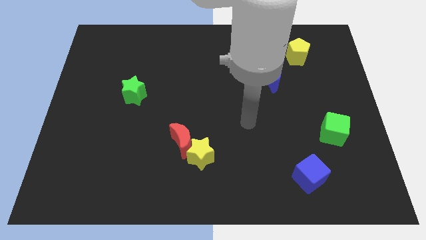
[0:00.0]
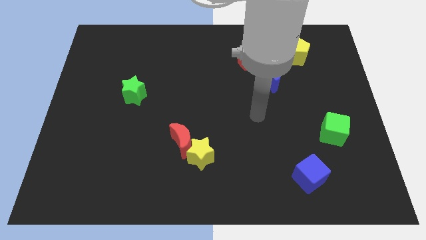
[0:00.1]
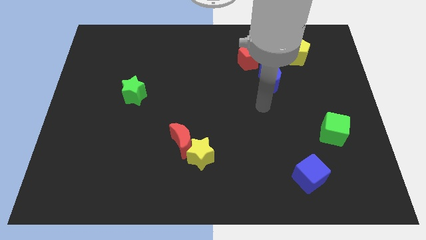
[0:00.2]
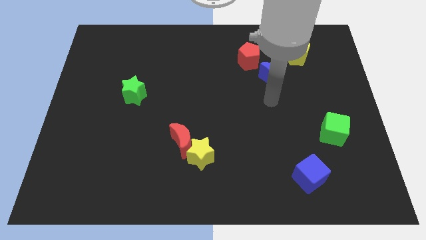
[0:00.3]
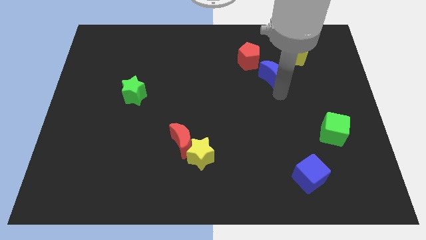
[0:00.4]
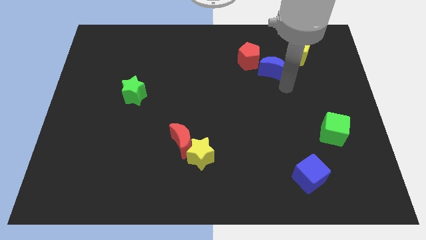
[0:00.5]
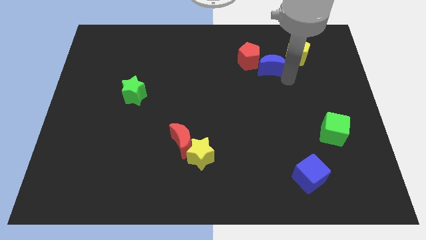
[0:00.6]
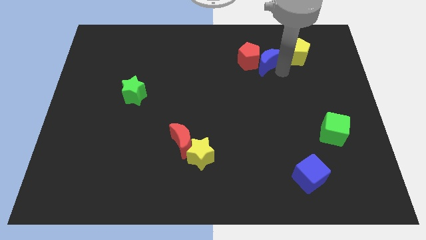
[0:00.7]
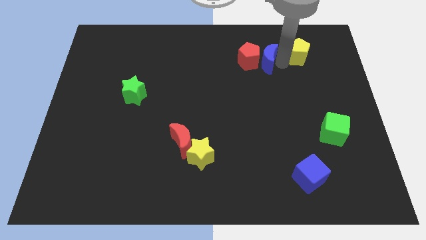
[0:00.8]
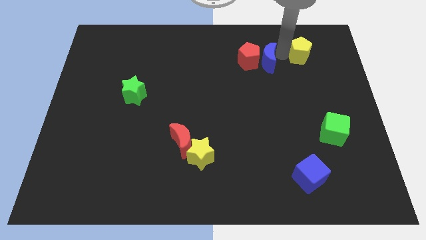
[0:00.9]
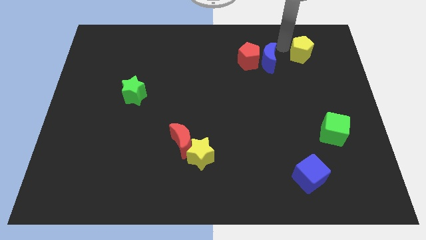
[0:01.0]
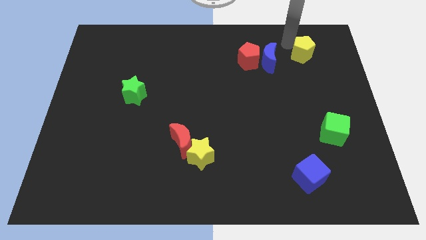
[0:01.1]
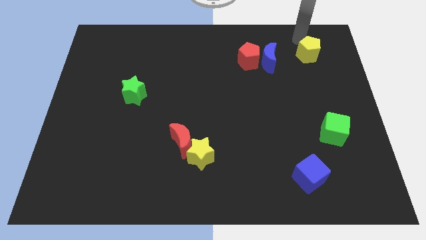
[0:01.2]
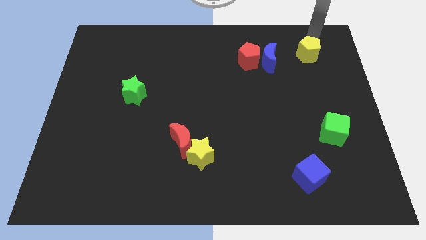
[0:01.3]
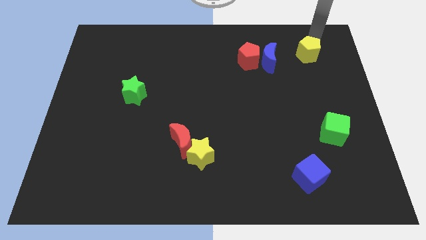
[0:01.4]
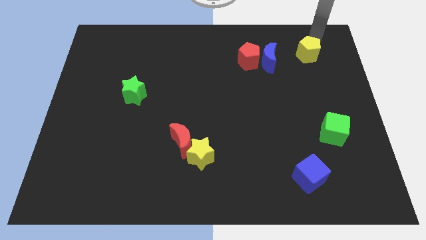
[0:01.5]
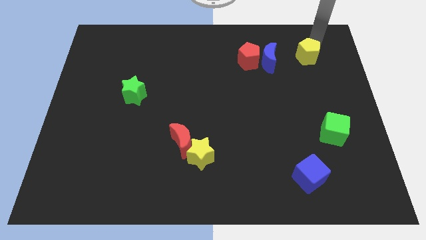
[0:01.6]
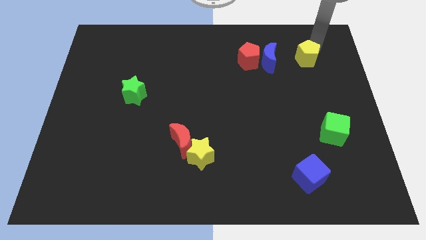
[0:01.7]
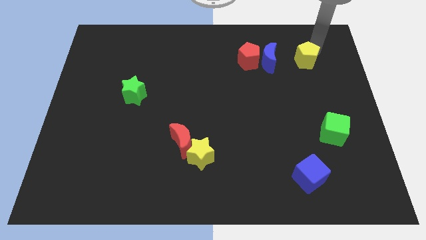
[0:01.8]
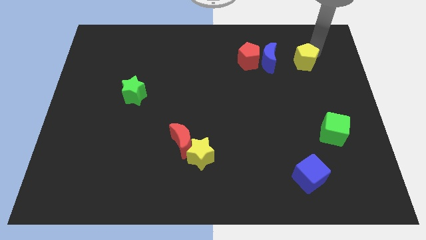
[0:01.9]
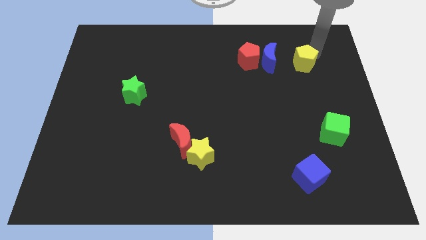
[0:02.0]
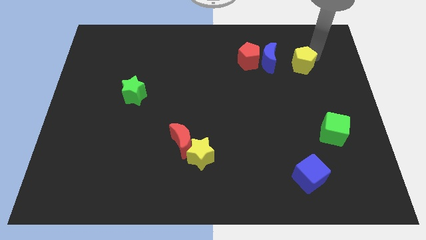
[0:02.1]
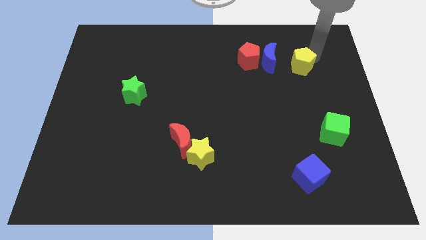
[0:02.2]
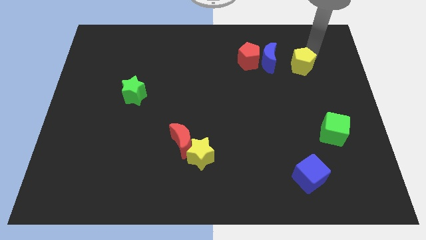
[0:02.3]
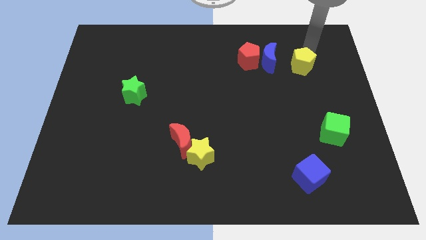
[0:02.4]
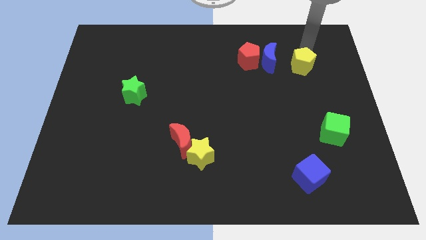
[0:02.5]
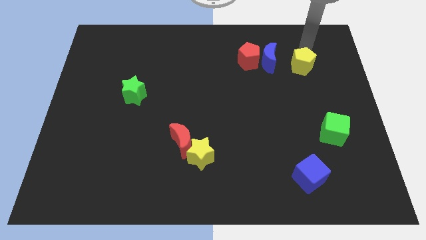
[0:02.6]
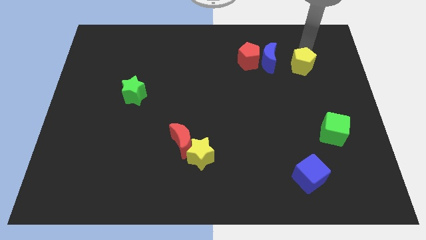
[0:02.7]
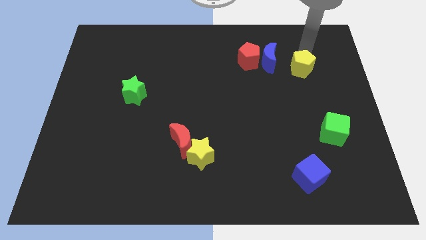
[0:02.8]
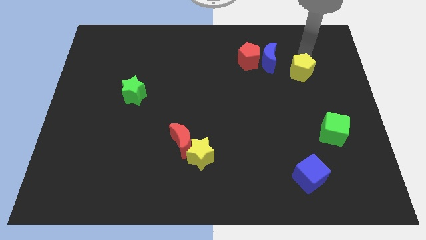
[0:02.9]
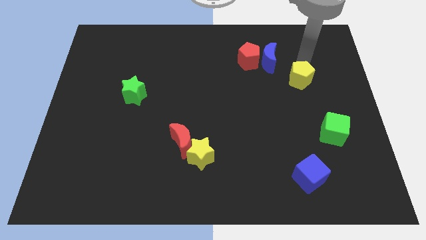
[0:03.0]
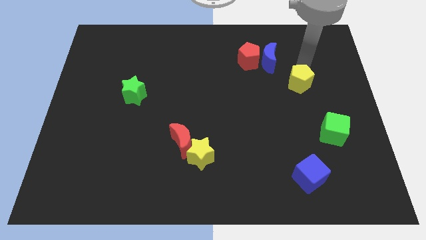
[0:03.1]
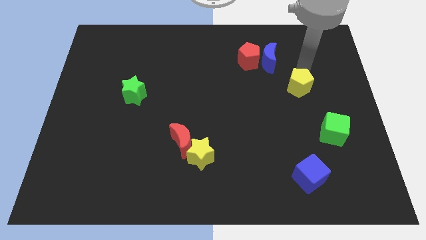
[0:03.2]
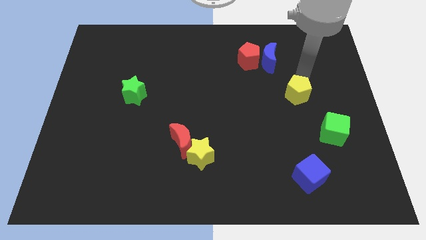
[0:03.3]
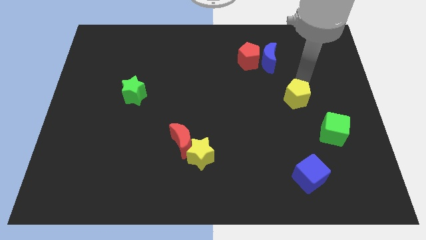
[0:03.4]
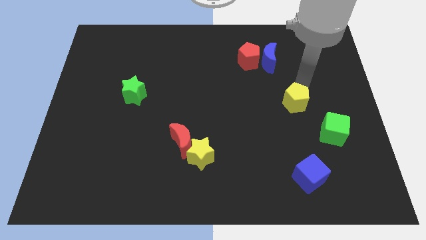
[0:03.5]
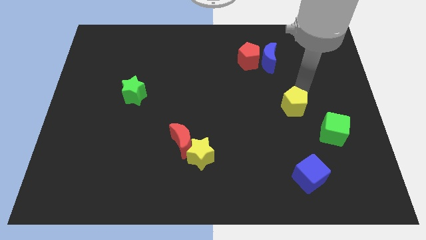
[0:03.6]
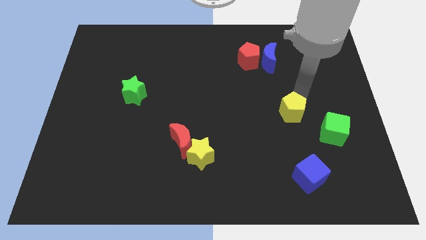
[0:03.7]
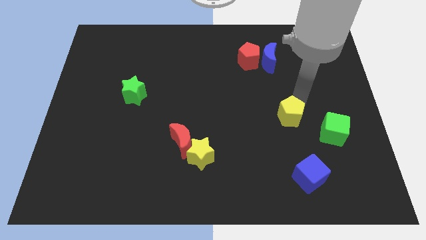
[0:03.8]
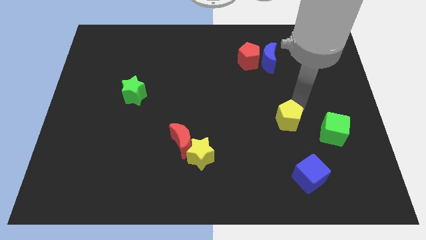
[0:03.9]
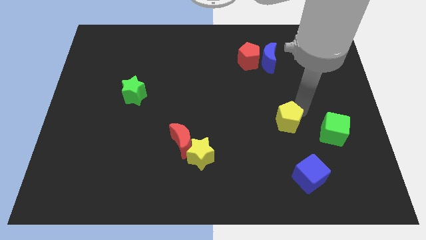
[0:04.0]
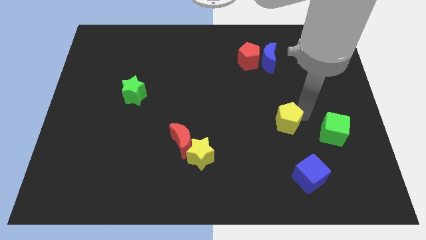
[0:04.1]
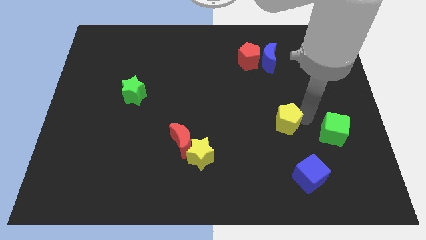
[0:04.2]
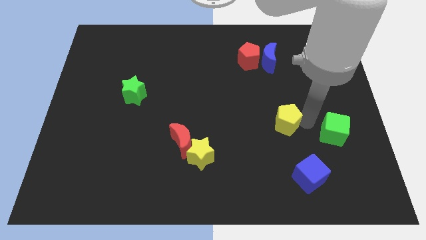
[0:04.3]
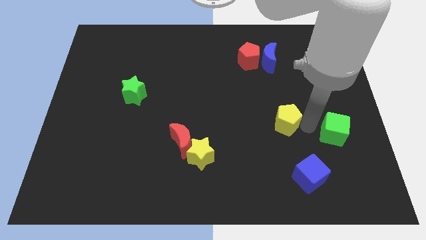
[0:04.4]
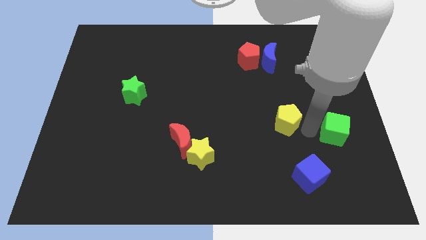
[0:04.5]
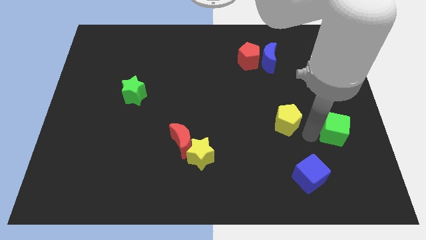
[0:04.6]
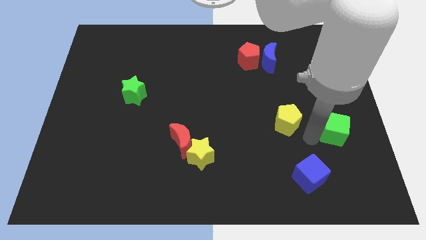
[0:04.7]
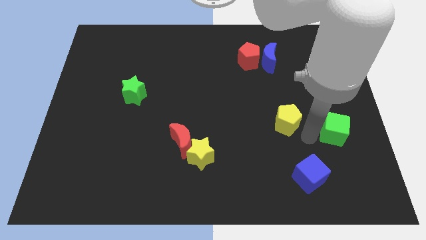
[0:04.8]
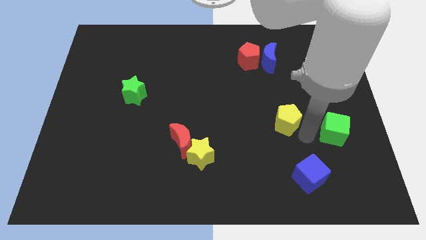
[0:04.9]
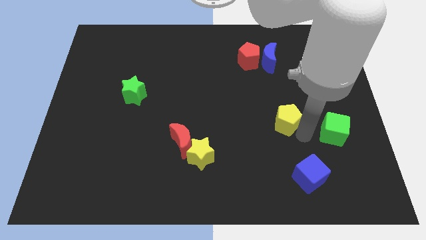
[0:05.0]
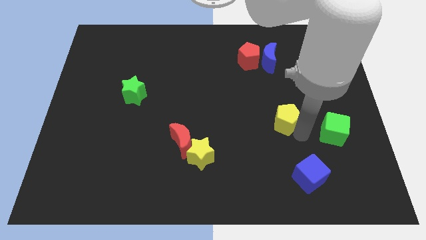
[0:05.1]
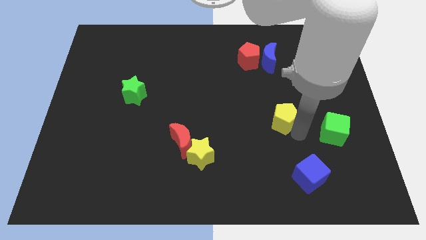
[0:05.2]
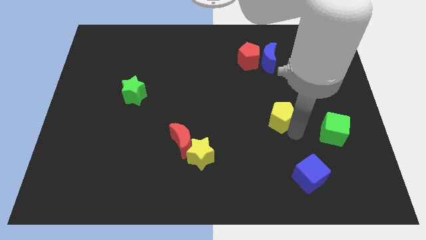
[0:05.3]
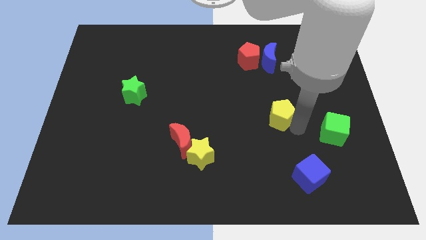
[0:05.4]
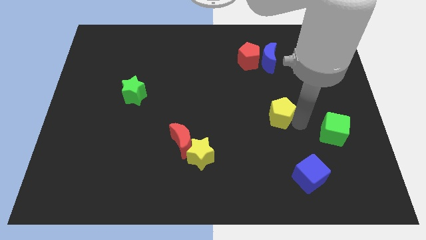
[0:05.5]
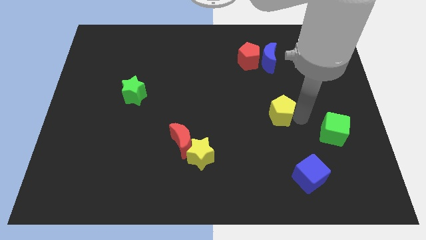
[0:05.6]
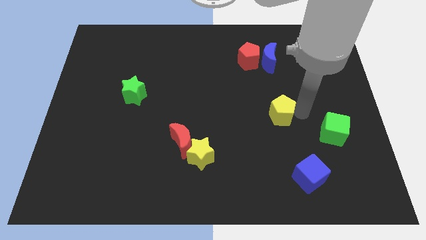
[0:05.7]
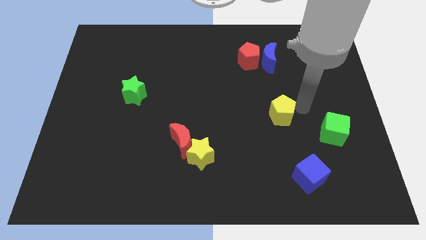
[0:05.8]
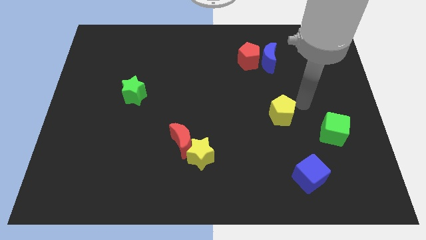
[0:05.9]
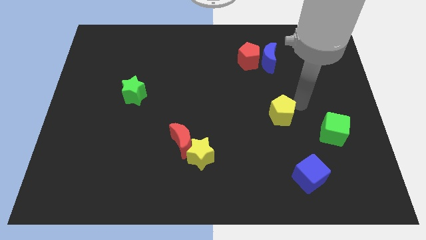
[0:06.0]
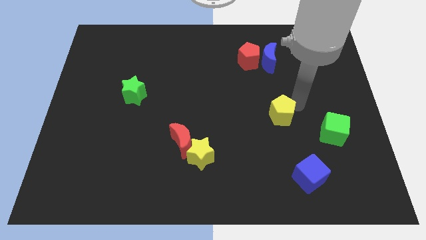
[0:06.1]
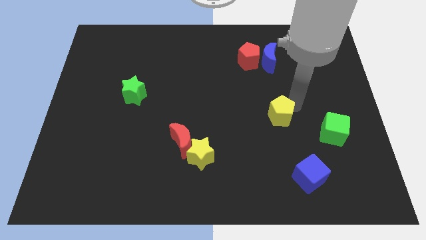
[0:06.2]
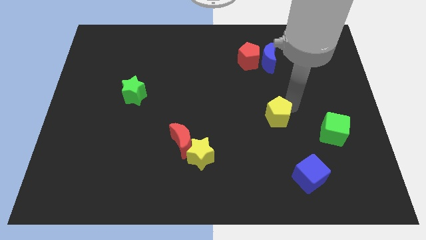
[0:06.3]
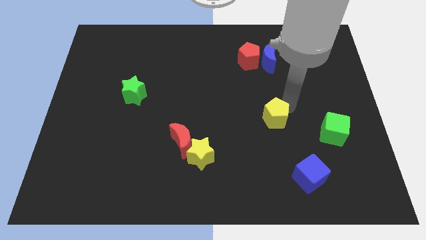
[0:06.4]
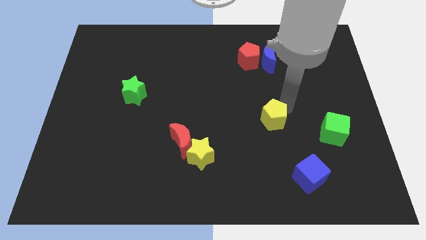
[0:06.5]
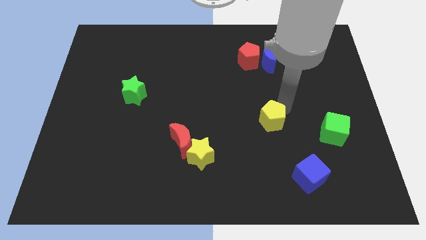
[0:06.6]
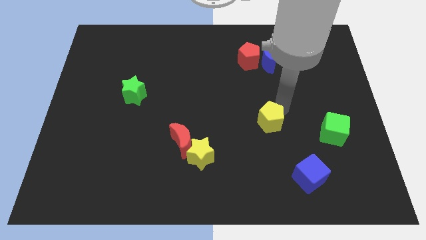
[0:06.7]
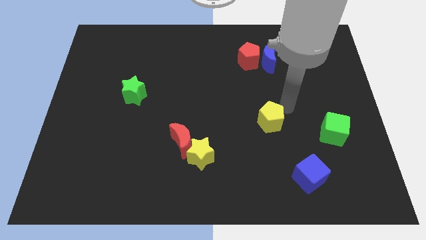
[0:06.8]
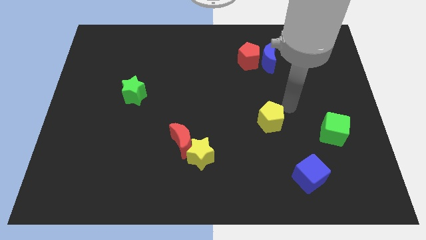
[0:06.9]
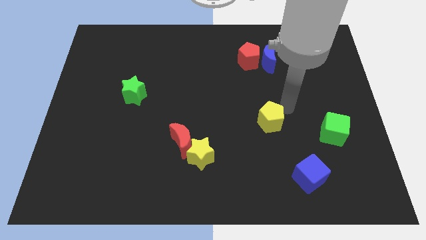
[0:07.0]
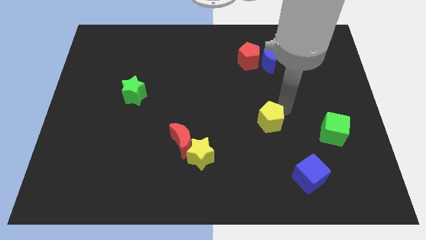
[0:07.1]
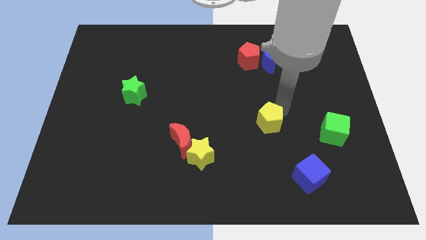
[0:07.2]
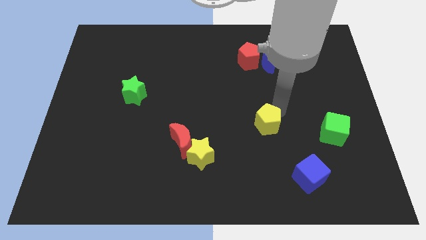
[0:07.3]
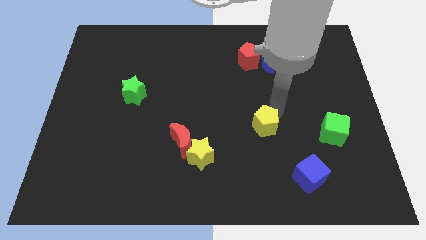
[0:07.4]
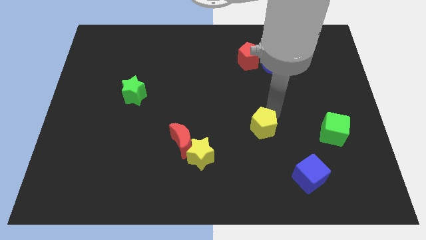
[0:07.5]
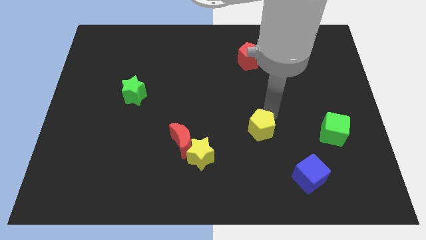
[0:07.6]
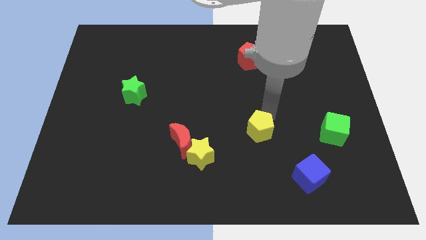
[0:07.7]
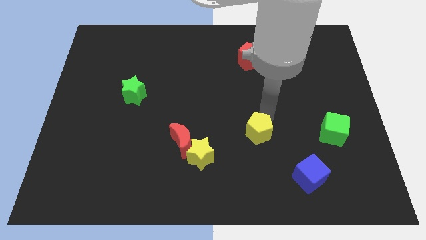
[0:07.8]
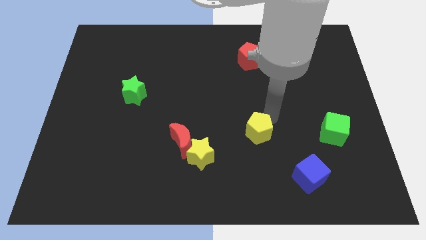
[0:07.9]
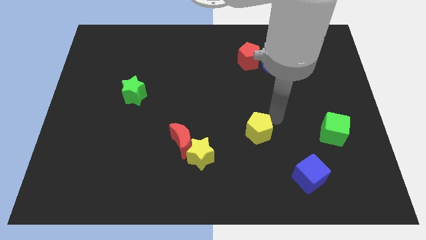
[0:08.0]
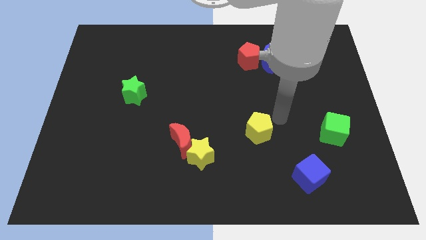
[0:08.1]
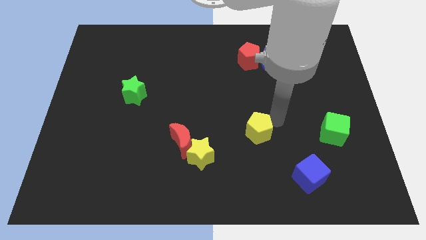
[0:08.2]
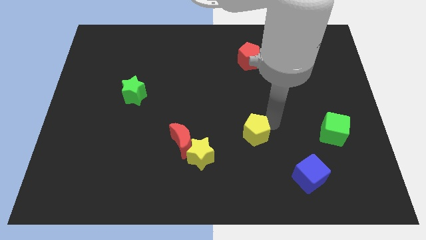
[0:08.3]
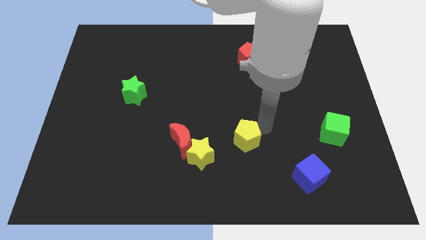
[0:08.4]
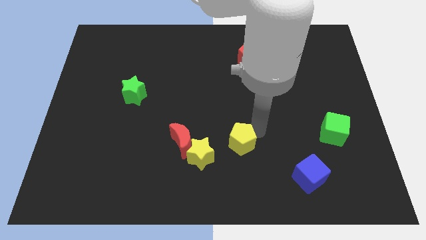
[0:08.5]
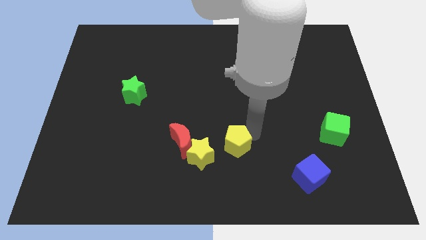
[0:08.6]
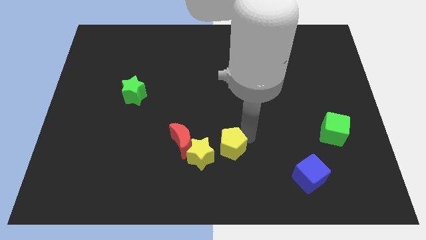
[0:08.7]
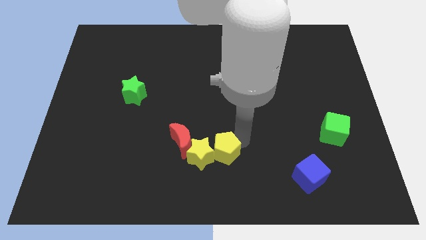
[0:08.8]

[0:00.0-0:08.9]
push the yellow pentagon to the bottom right of the red moon
